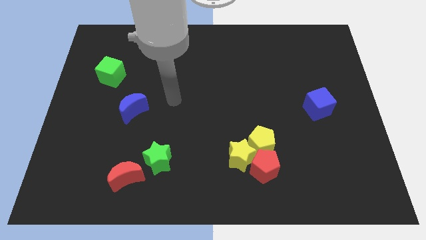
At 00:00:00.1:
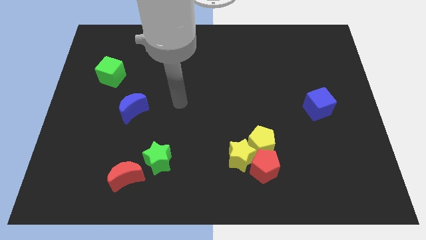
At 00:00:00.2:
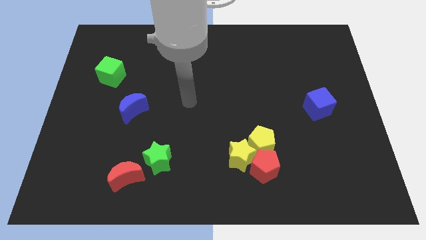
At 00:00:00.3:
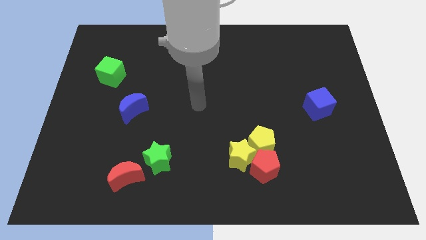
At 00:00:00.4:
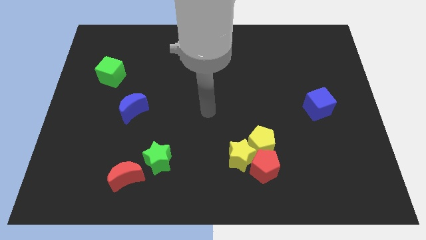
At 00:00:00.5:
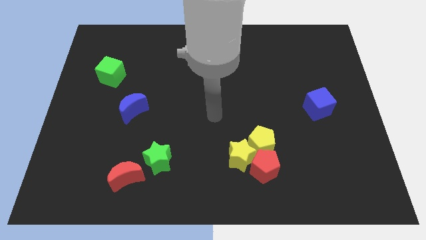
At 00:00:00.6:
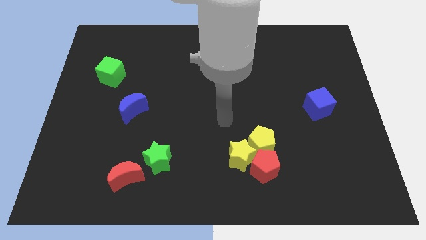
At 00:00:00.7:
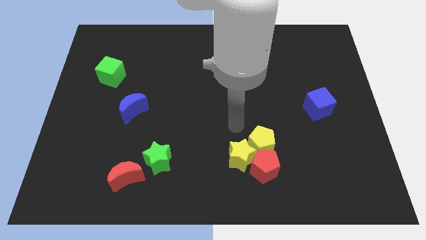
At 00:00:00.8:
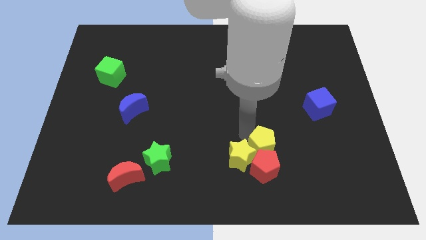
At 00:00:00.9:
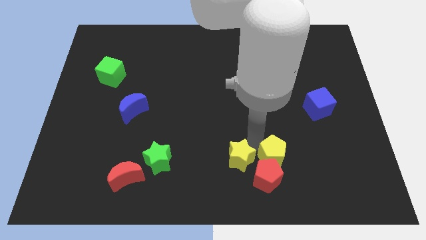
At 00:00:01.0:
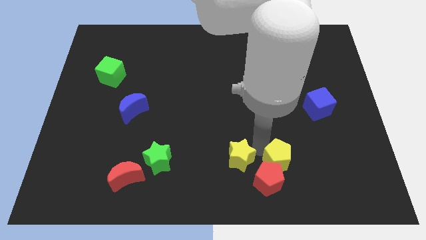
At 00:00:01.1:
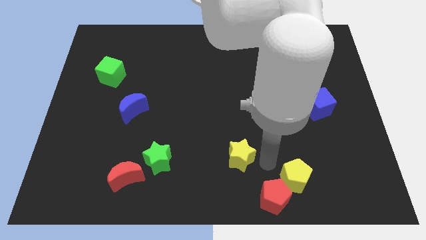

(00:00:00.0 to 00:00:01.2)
pull the yellow star apart from the yellow pentagon and red pentagon

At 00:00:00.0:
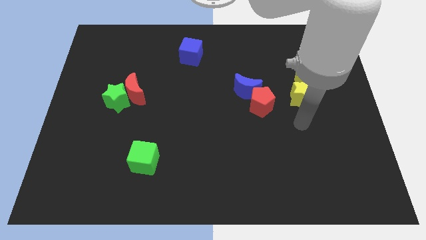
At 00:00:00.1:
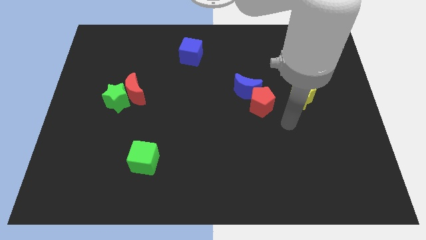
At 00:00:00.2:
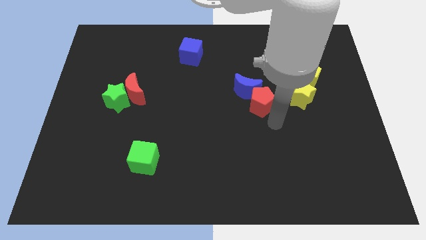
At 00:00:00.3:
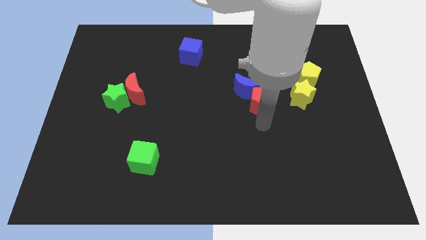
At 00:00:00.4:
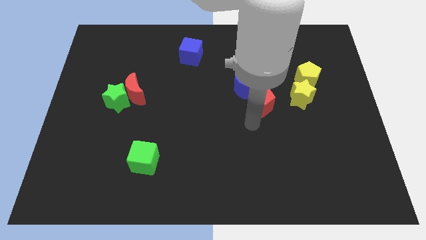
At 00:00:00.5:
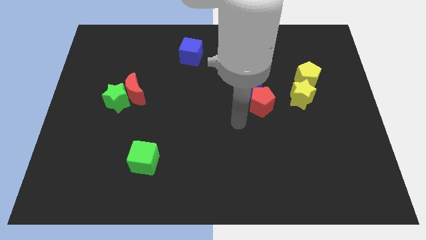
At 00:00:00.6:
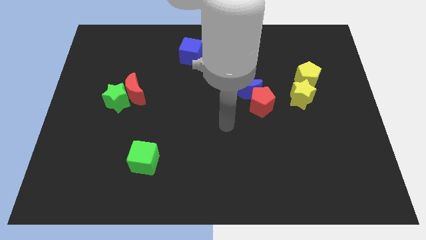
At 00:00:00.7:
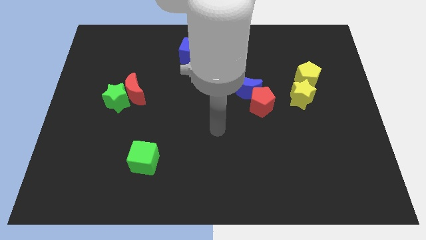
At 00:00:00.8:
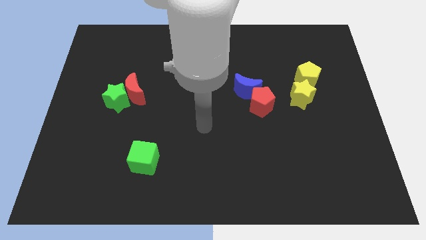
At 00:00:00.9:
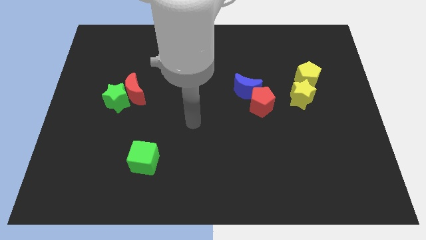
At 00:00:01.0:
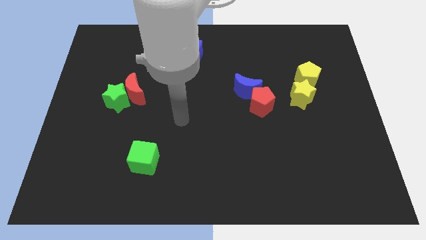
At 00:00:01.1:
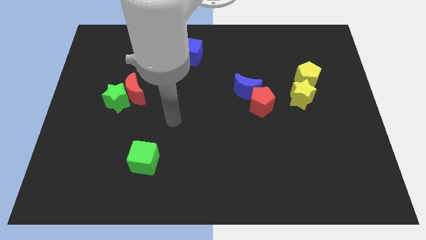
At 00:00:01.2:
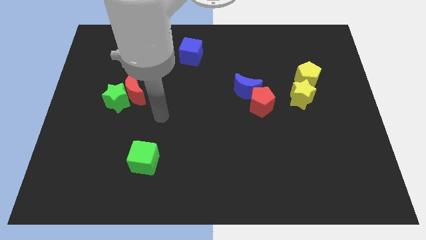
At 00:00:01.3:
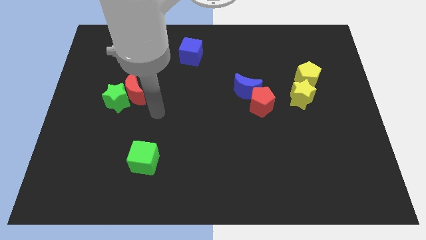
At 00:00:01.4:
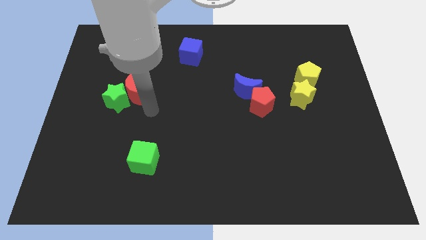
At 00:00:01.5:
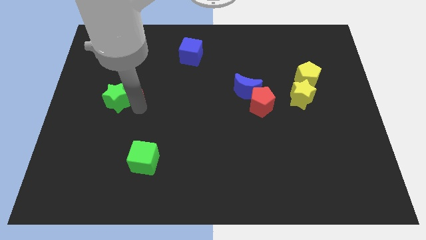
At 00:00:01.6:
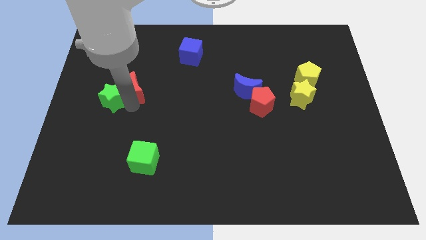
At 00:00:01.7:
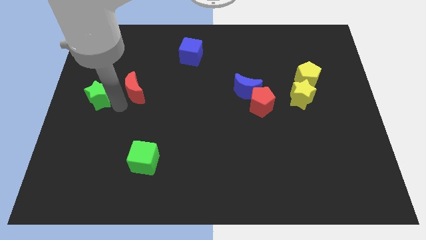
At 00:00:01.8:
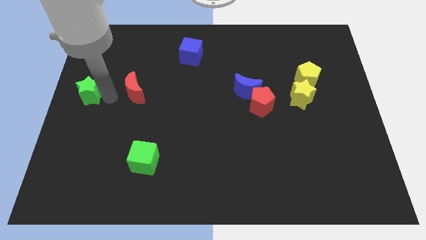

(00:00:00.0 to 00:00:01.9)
pull the red moon apart from the green star

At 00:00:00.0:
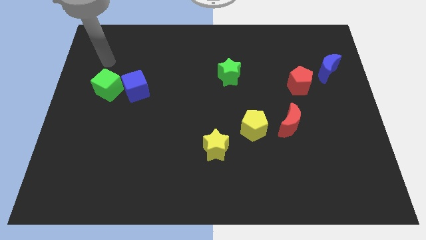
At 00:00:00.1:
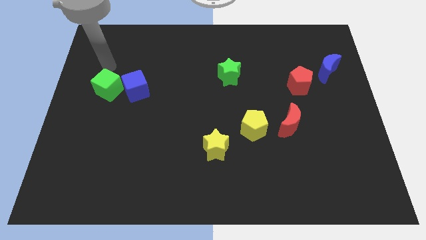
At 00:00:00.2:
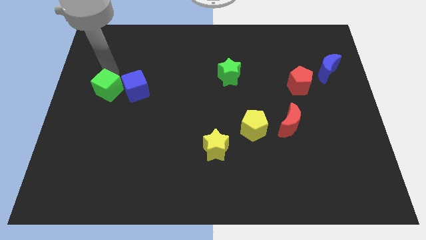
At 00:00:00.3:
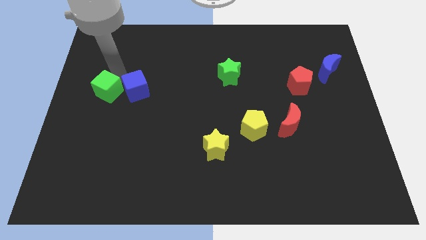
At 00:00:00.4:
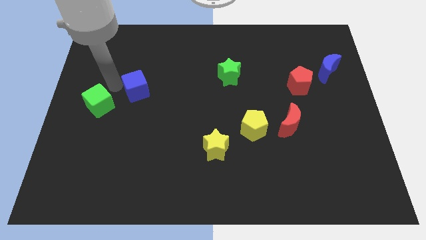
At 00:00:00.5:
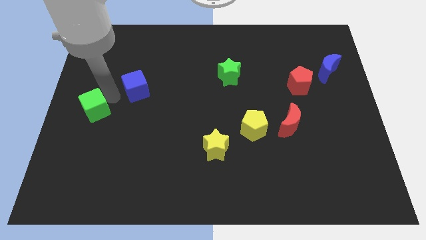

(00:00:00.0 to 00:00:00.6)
pull the blue cube apart from the green cube

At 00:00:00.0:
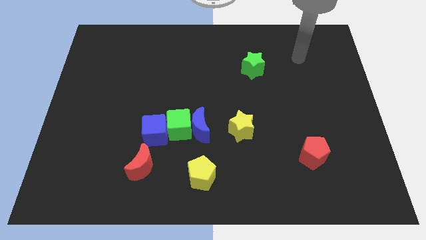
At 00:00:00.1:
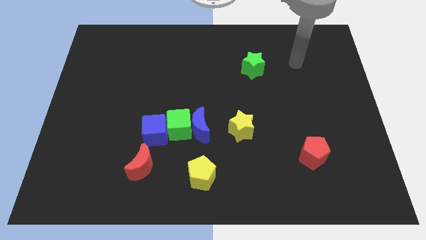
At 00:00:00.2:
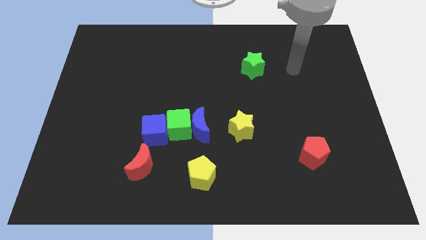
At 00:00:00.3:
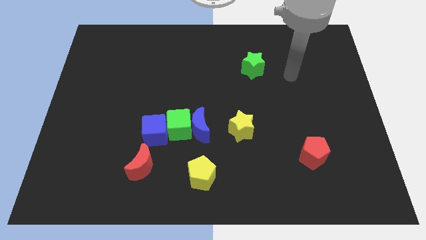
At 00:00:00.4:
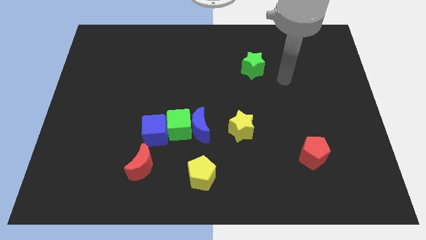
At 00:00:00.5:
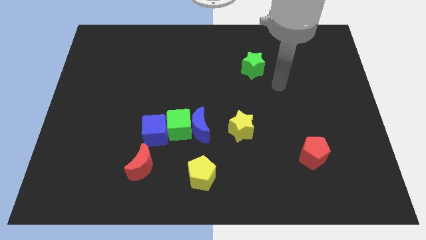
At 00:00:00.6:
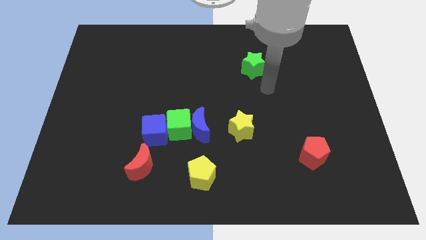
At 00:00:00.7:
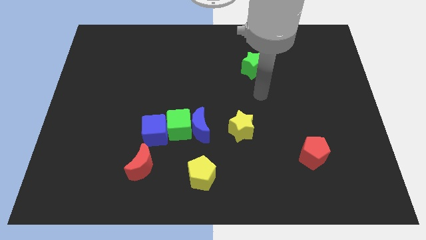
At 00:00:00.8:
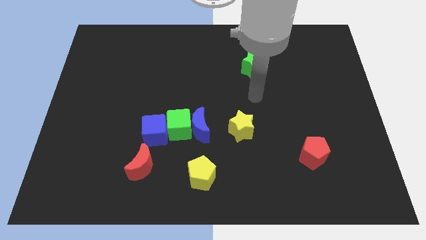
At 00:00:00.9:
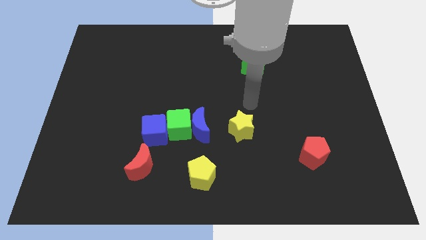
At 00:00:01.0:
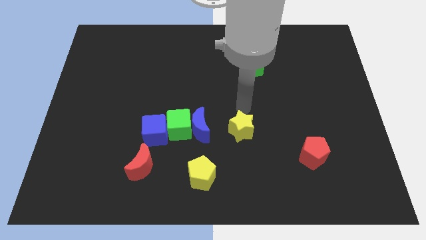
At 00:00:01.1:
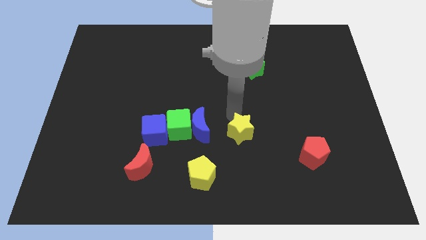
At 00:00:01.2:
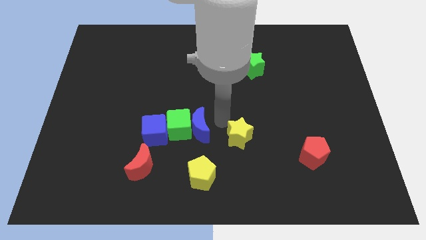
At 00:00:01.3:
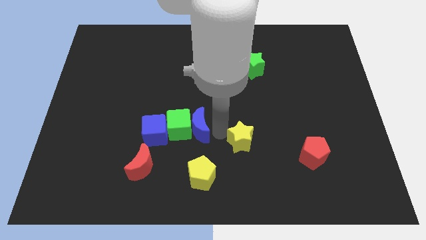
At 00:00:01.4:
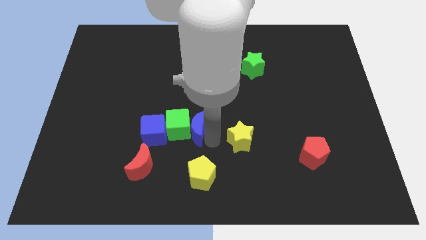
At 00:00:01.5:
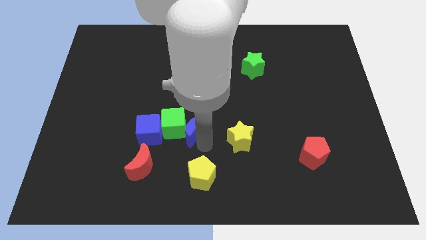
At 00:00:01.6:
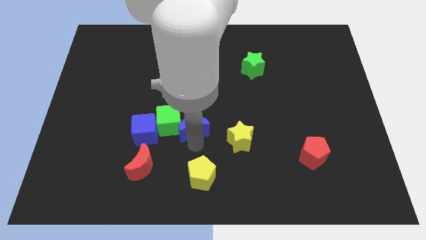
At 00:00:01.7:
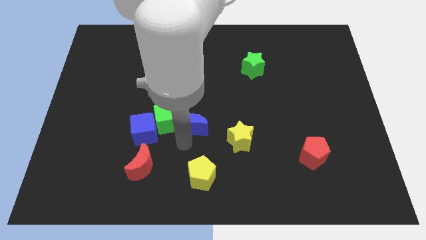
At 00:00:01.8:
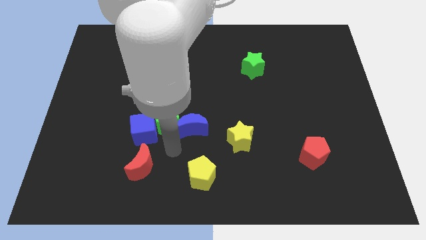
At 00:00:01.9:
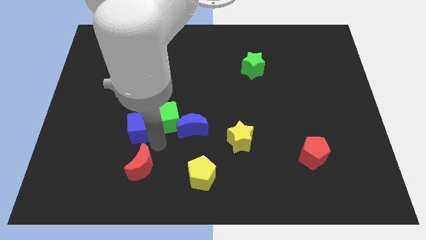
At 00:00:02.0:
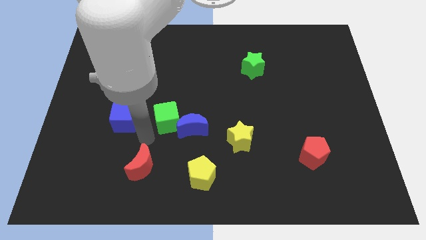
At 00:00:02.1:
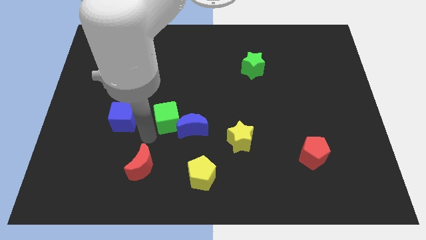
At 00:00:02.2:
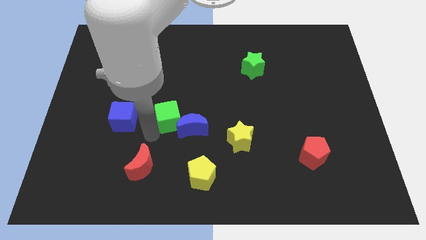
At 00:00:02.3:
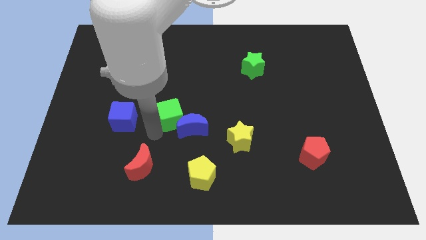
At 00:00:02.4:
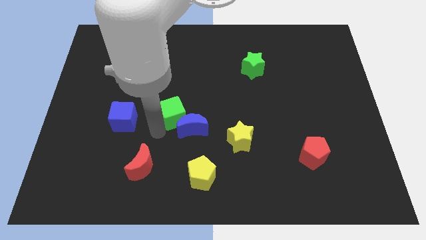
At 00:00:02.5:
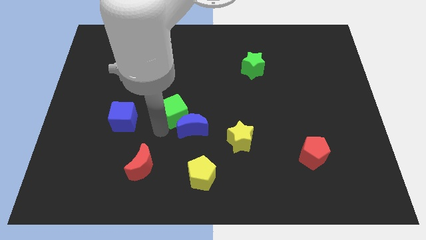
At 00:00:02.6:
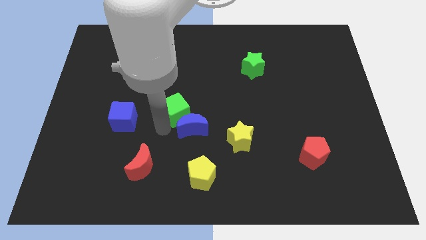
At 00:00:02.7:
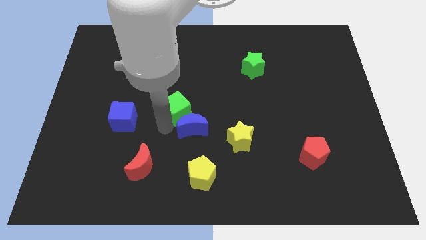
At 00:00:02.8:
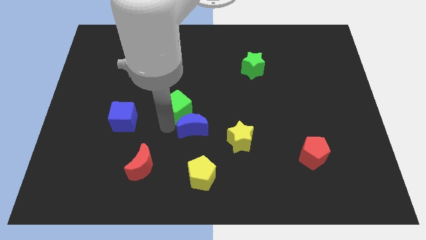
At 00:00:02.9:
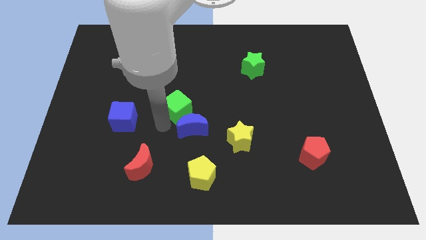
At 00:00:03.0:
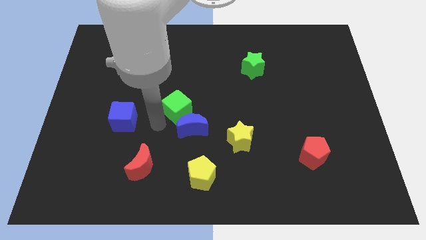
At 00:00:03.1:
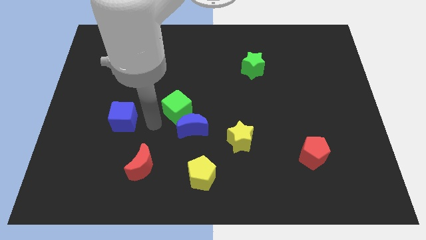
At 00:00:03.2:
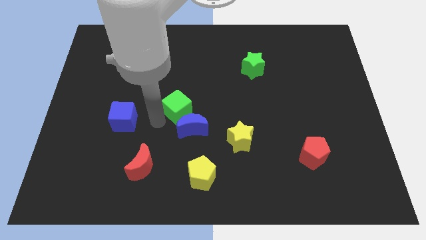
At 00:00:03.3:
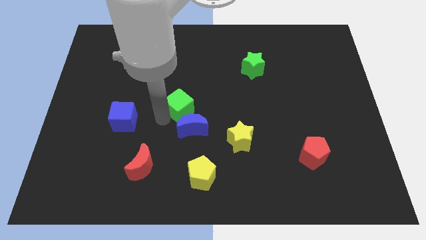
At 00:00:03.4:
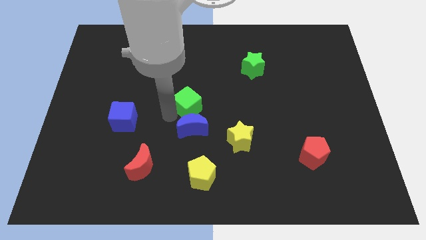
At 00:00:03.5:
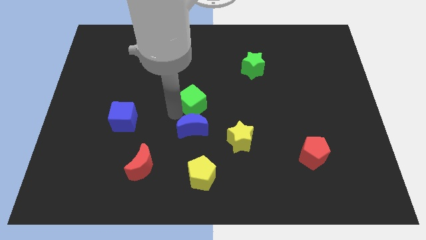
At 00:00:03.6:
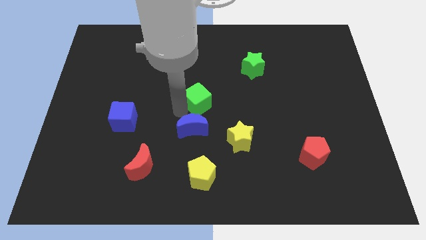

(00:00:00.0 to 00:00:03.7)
pull the green cube apart from the blue moon and blue cube

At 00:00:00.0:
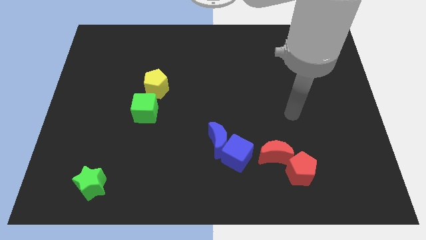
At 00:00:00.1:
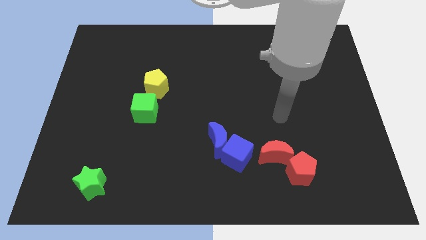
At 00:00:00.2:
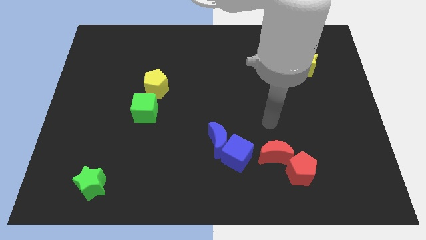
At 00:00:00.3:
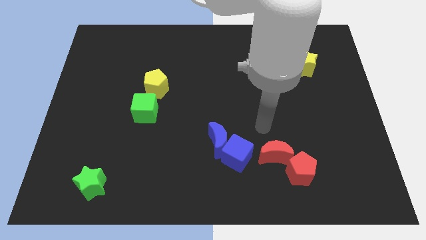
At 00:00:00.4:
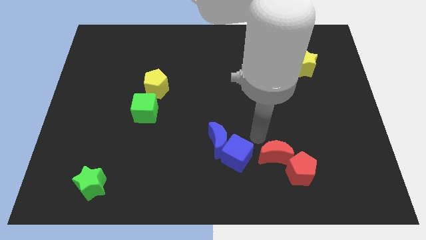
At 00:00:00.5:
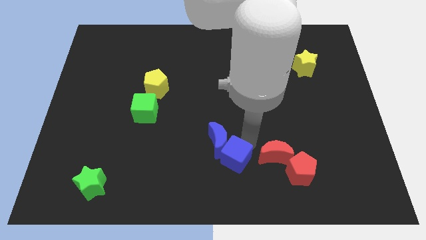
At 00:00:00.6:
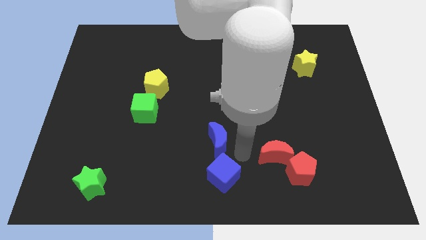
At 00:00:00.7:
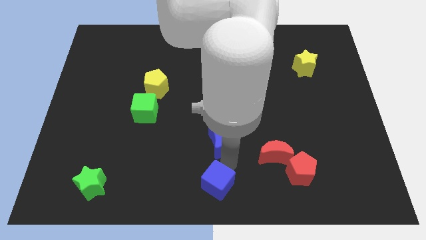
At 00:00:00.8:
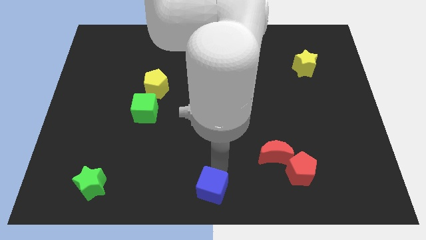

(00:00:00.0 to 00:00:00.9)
pull the blue moon apart from the blue cube

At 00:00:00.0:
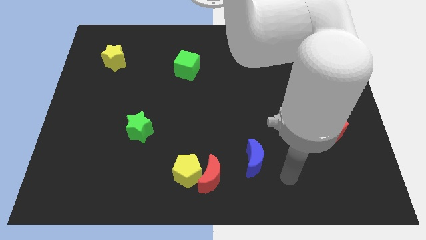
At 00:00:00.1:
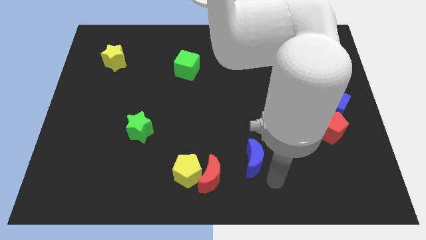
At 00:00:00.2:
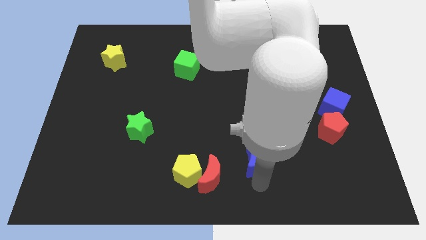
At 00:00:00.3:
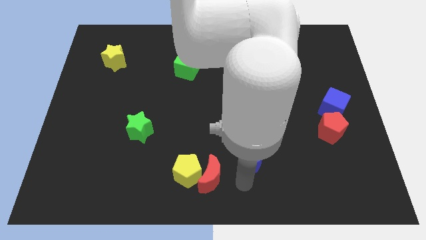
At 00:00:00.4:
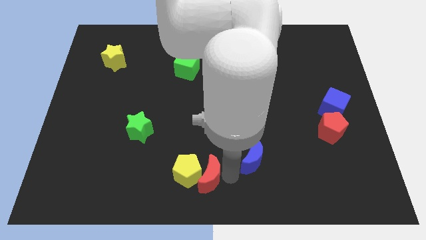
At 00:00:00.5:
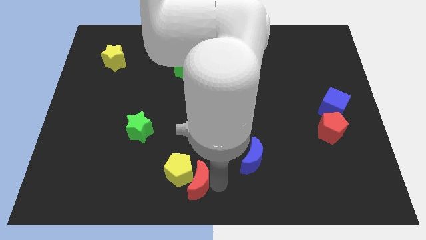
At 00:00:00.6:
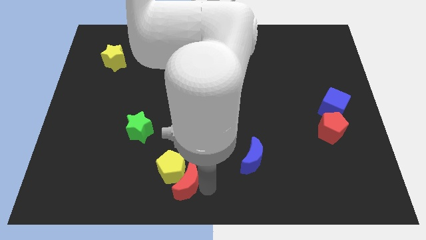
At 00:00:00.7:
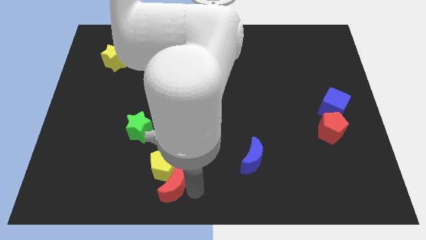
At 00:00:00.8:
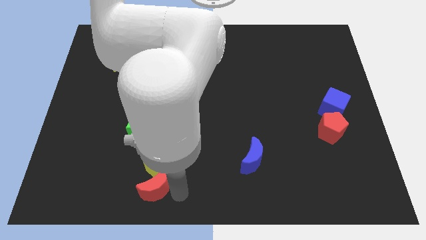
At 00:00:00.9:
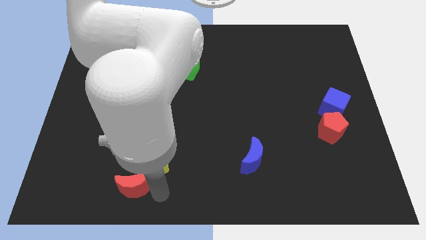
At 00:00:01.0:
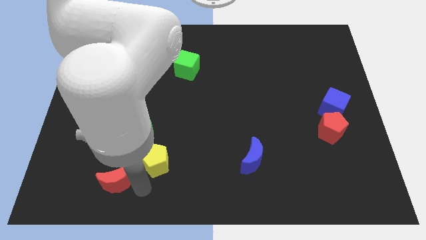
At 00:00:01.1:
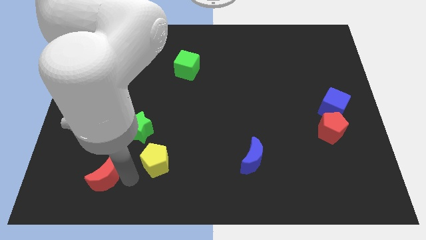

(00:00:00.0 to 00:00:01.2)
move the yellow pentagon away from the red moon
